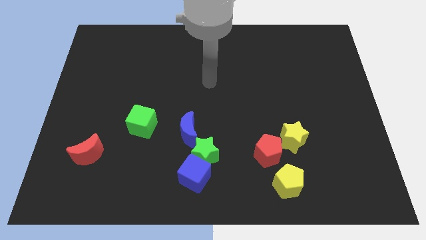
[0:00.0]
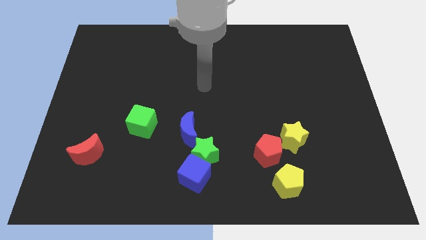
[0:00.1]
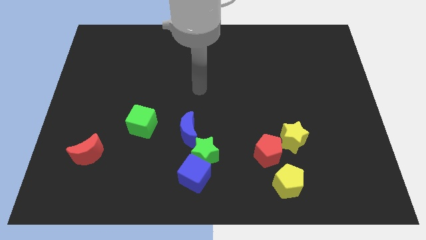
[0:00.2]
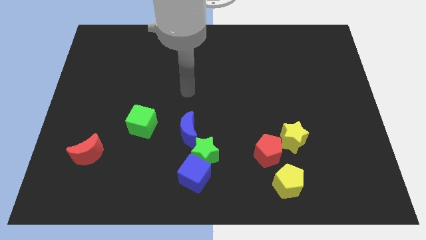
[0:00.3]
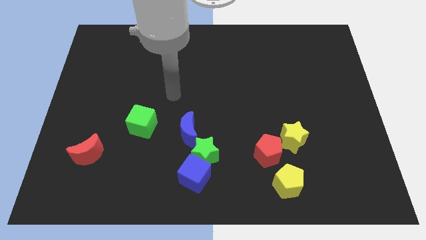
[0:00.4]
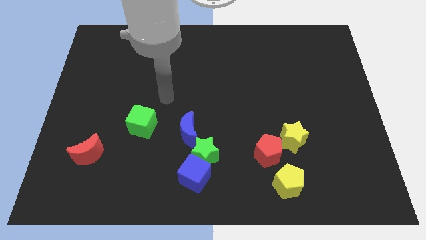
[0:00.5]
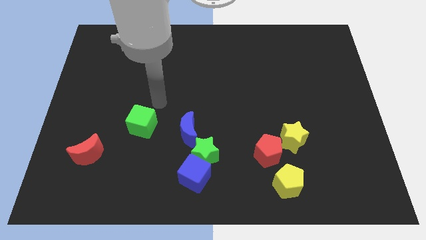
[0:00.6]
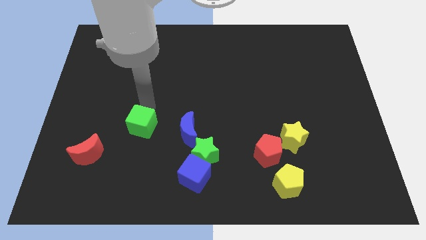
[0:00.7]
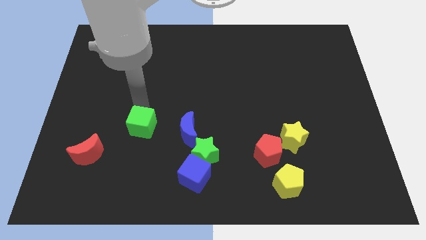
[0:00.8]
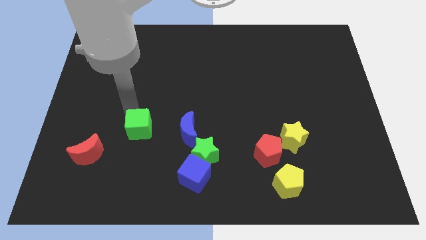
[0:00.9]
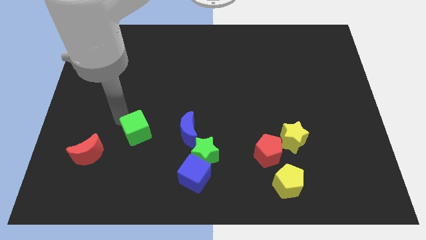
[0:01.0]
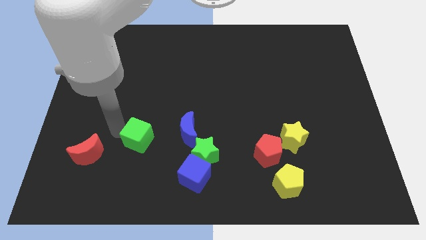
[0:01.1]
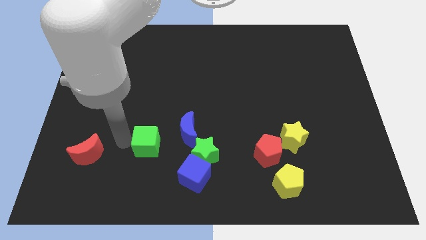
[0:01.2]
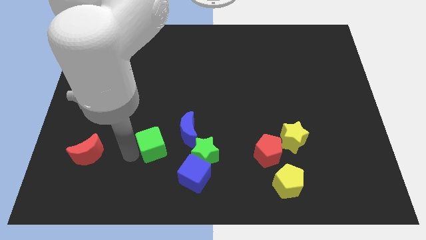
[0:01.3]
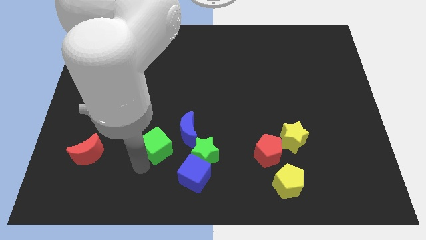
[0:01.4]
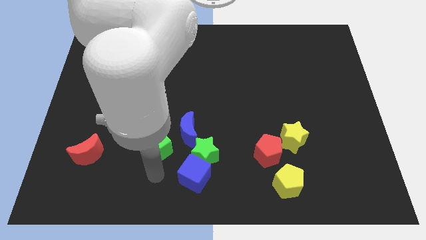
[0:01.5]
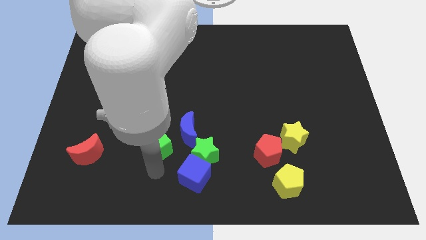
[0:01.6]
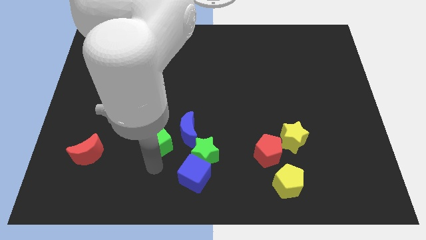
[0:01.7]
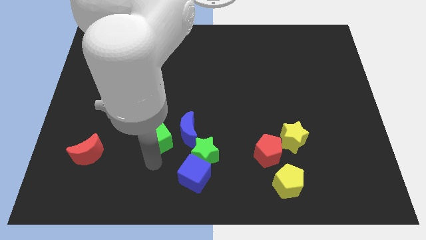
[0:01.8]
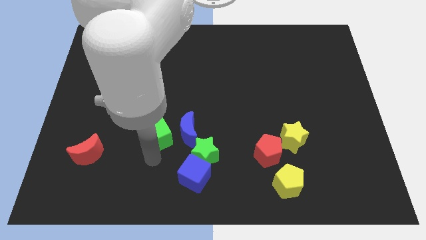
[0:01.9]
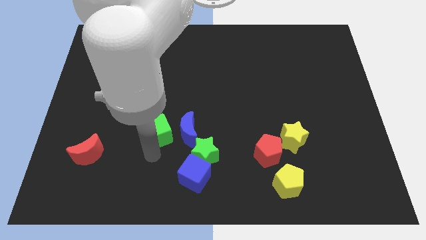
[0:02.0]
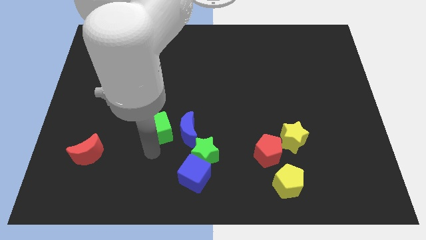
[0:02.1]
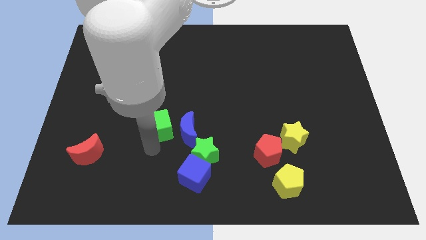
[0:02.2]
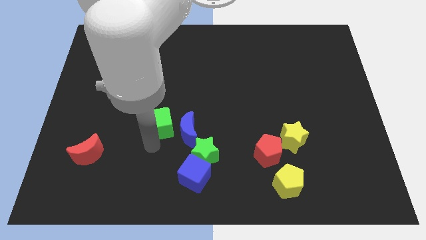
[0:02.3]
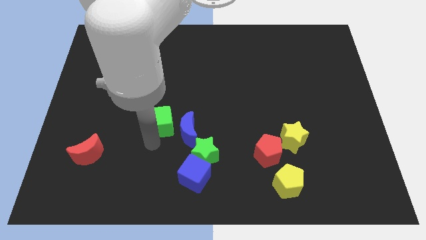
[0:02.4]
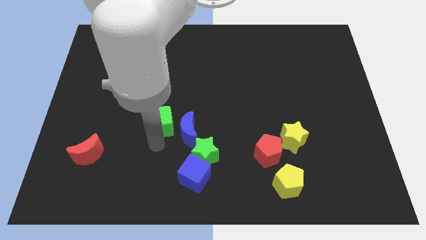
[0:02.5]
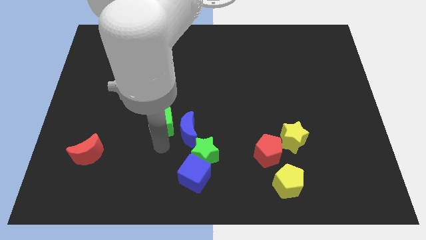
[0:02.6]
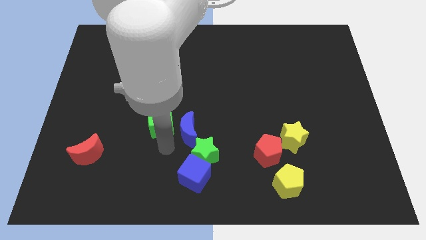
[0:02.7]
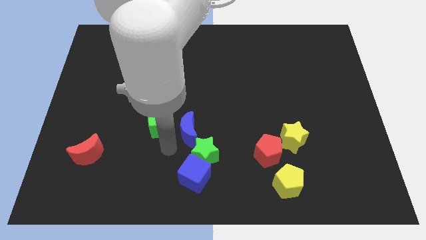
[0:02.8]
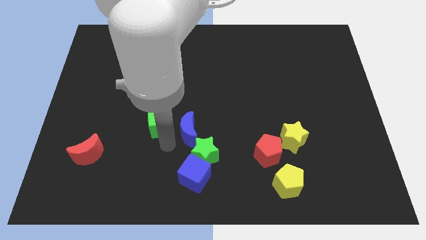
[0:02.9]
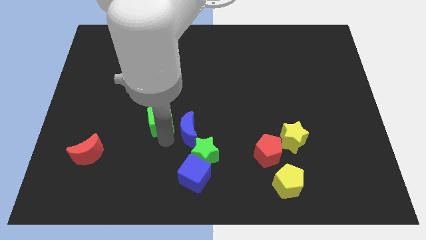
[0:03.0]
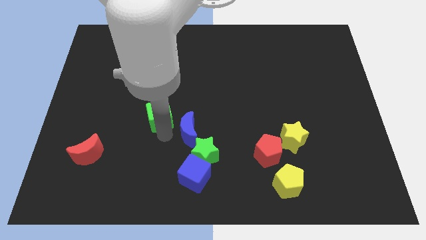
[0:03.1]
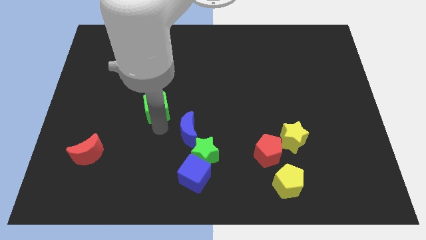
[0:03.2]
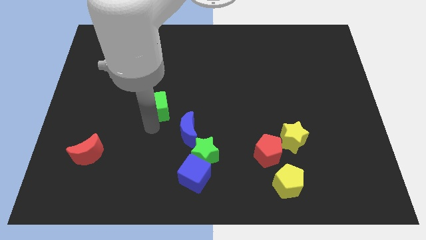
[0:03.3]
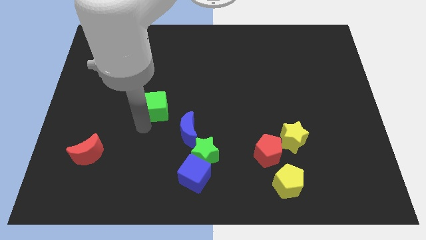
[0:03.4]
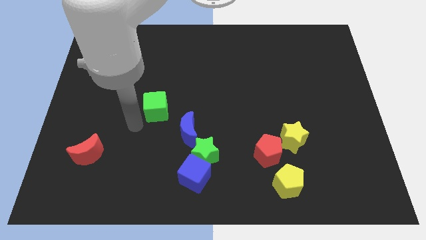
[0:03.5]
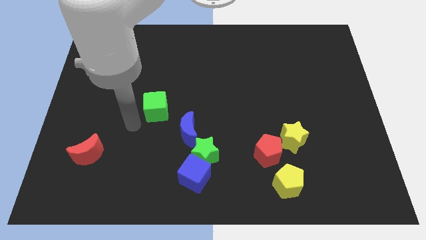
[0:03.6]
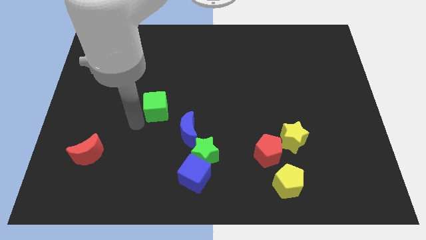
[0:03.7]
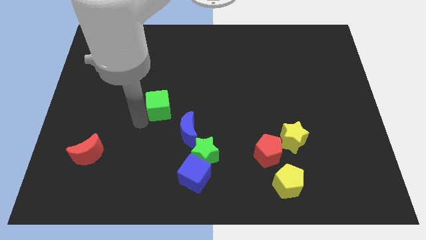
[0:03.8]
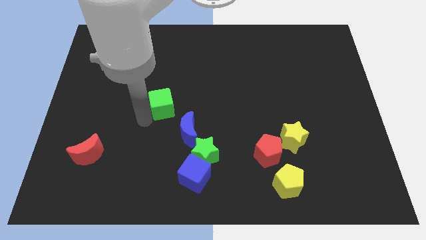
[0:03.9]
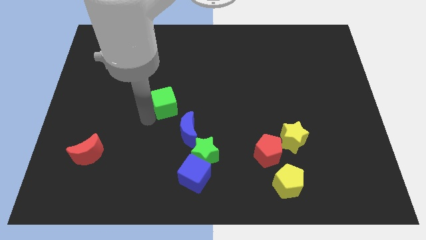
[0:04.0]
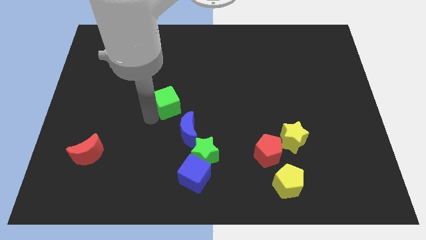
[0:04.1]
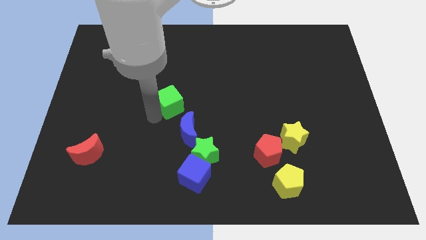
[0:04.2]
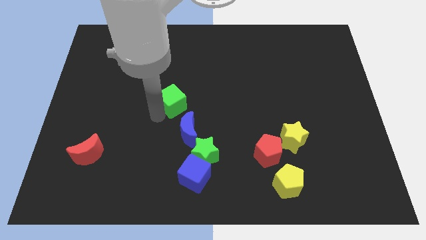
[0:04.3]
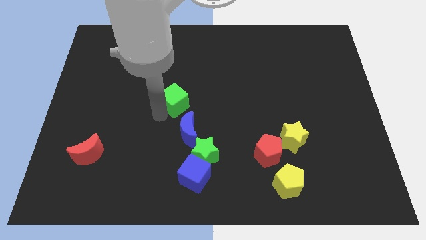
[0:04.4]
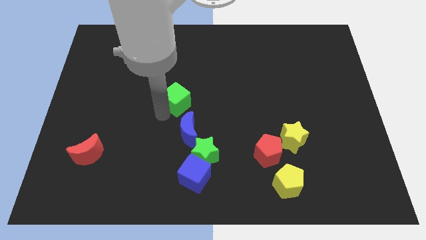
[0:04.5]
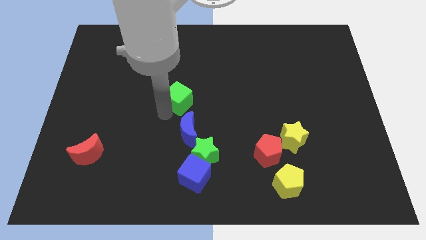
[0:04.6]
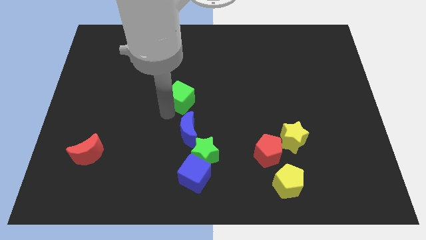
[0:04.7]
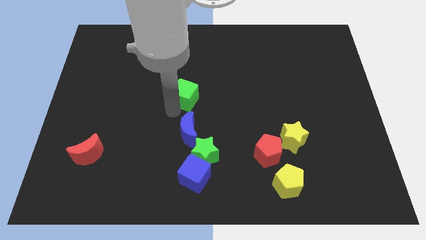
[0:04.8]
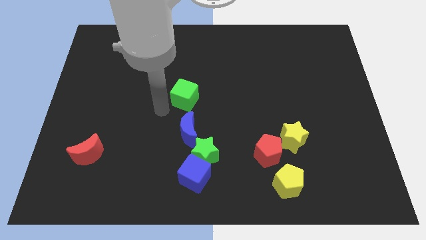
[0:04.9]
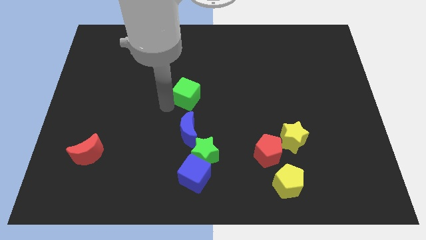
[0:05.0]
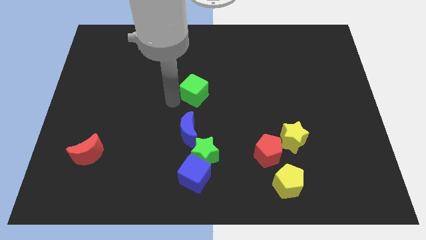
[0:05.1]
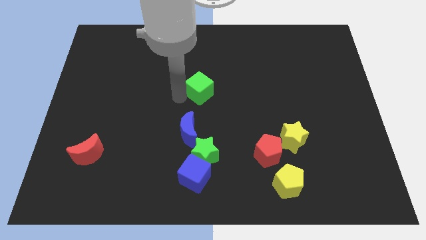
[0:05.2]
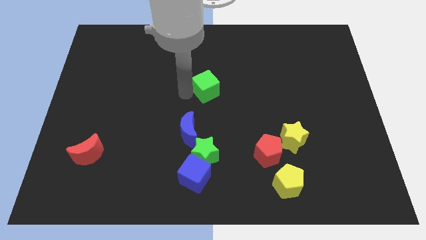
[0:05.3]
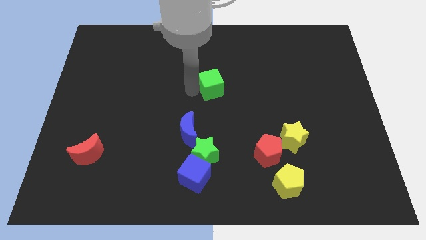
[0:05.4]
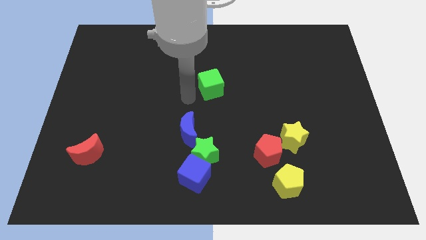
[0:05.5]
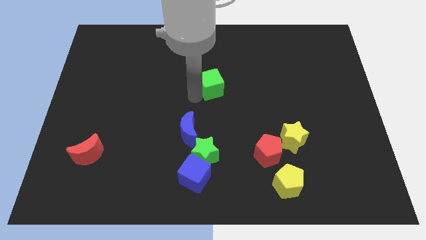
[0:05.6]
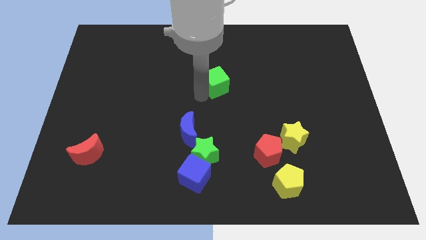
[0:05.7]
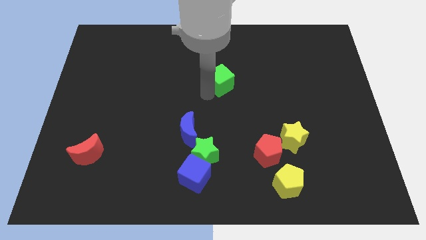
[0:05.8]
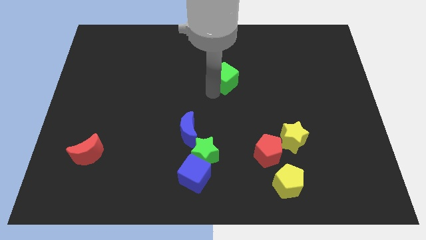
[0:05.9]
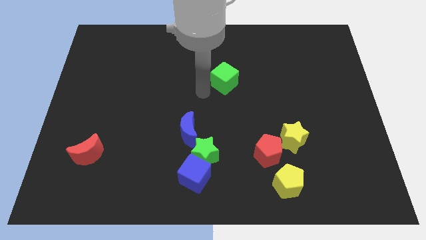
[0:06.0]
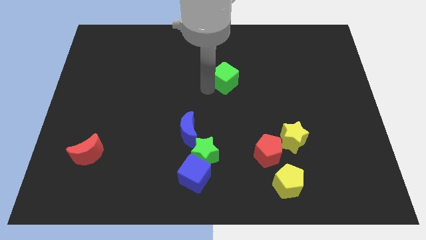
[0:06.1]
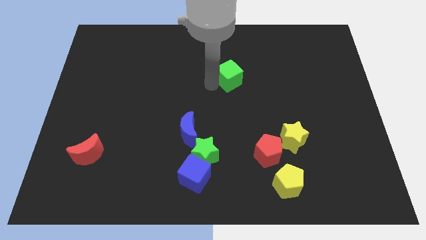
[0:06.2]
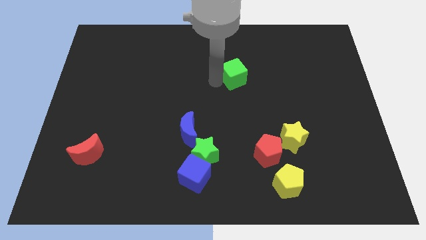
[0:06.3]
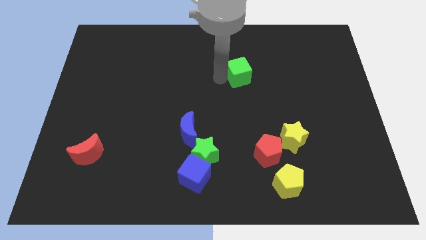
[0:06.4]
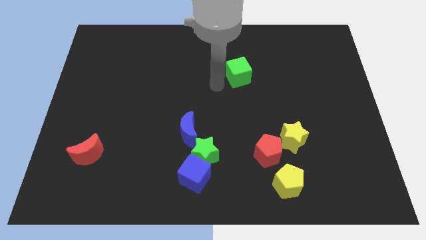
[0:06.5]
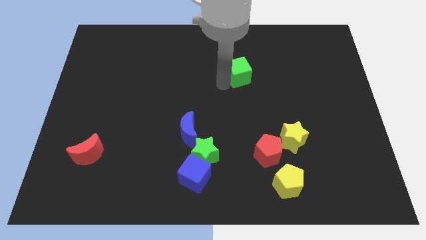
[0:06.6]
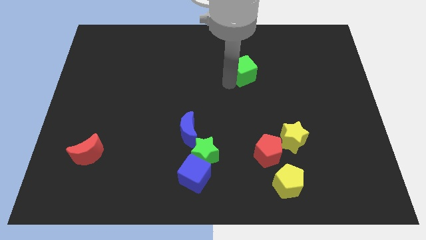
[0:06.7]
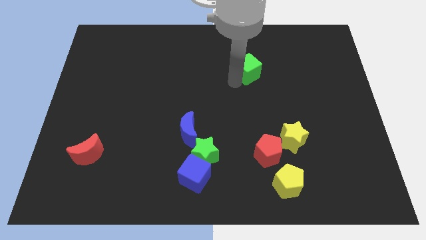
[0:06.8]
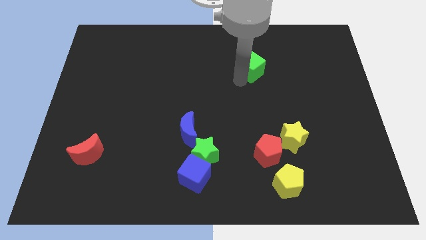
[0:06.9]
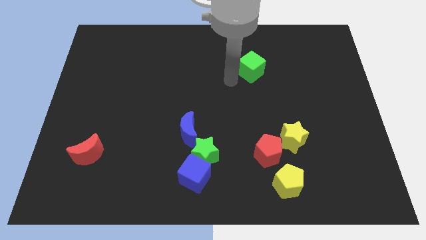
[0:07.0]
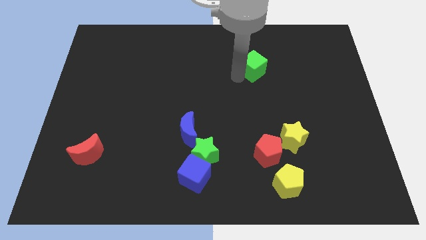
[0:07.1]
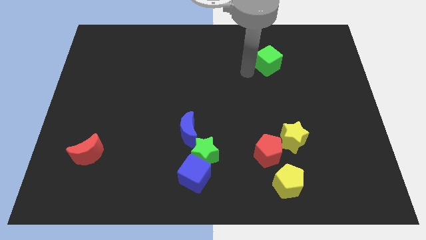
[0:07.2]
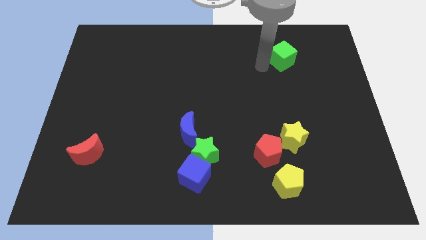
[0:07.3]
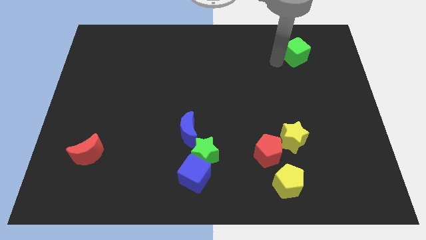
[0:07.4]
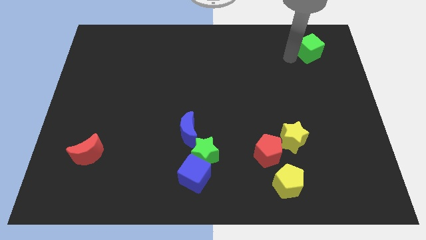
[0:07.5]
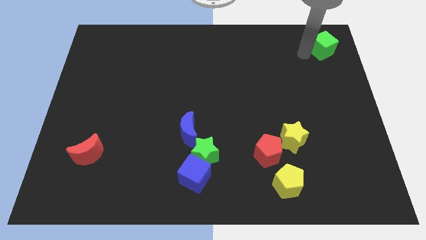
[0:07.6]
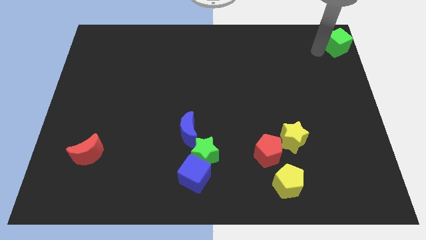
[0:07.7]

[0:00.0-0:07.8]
put the green cube to the top right
